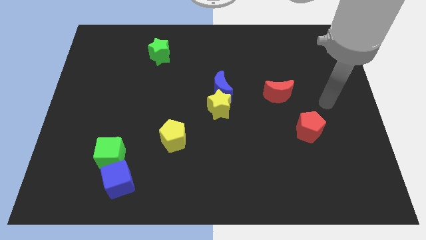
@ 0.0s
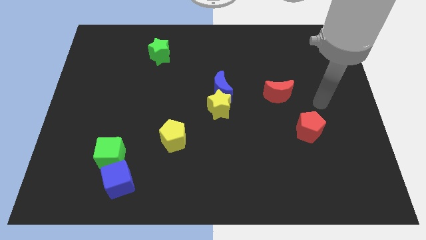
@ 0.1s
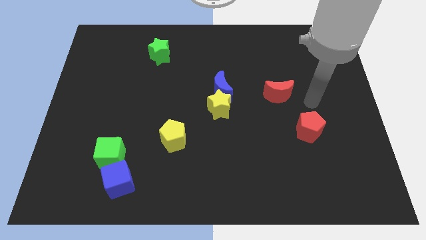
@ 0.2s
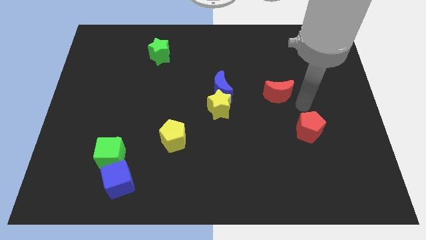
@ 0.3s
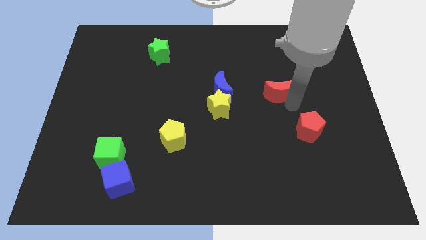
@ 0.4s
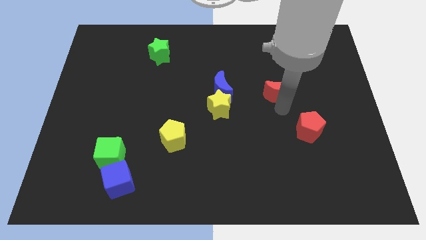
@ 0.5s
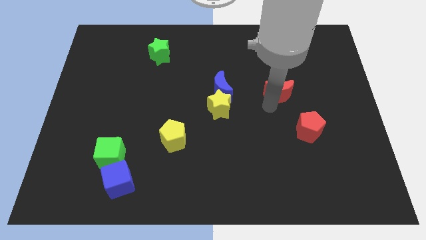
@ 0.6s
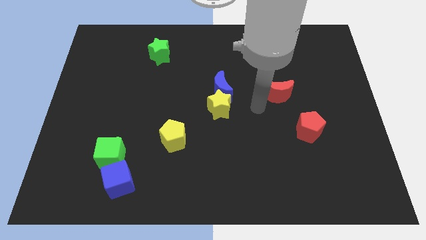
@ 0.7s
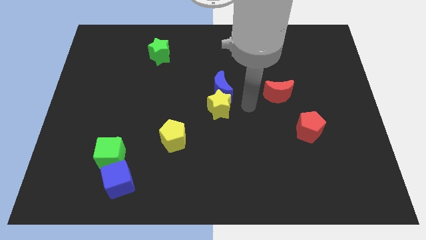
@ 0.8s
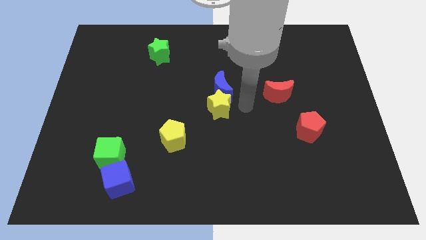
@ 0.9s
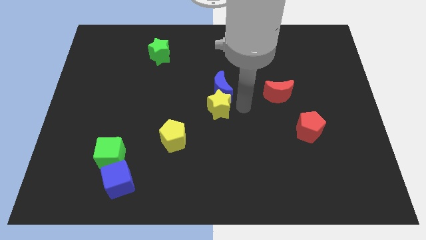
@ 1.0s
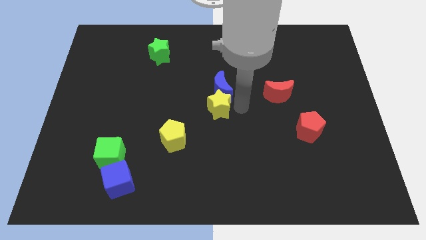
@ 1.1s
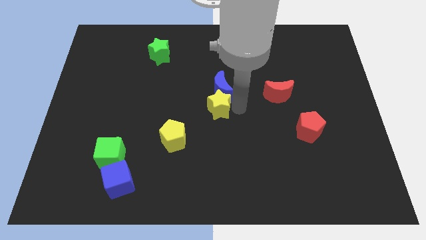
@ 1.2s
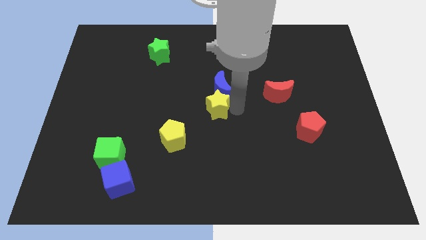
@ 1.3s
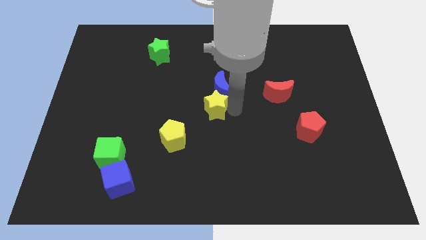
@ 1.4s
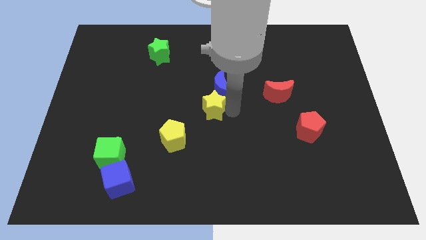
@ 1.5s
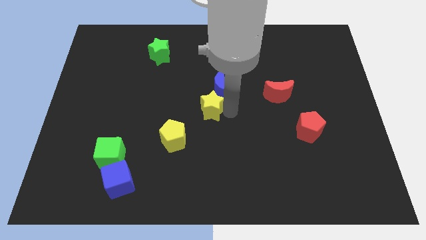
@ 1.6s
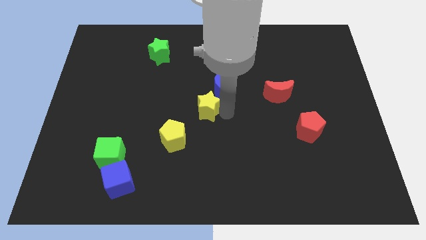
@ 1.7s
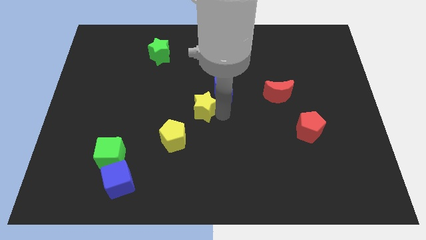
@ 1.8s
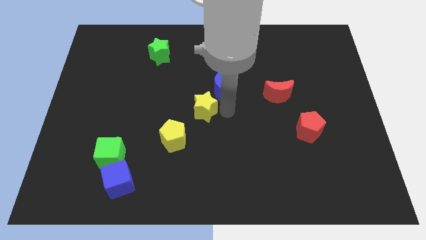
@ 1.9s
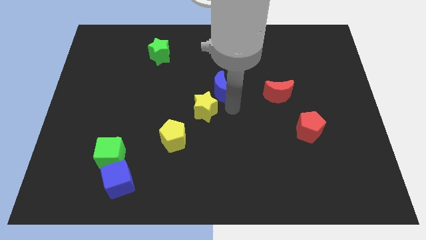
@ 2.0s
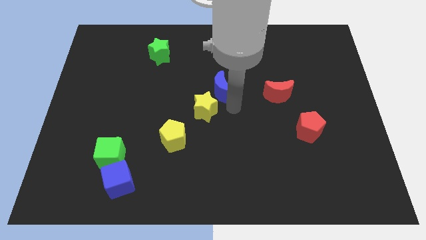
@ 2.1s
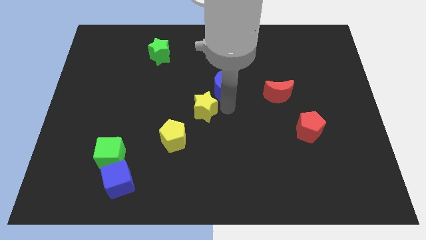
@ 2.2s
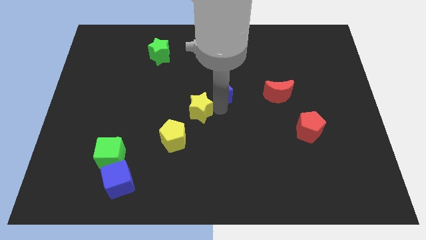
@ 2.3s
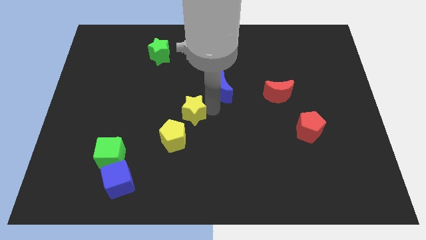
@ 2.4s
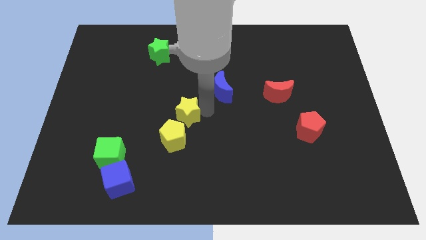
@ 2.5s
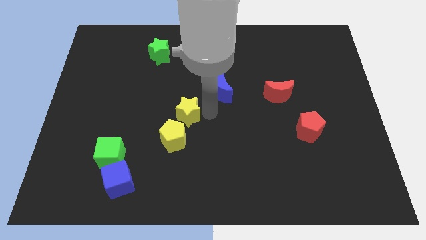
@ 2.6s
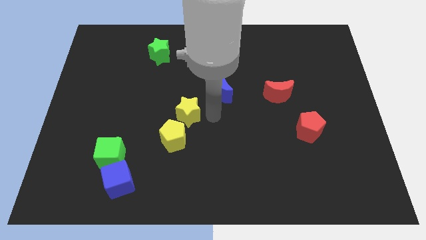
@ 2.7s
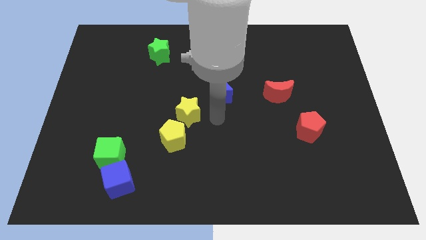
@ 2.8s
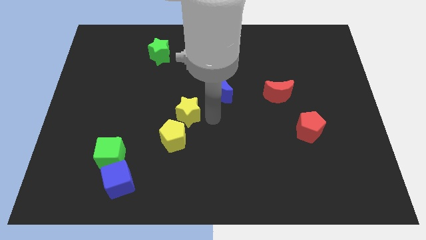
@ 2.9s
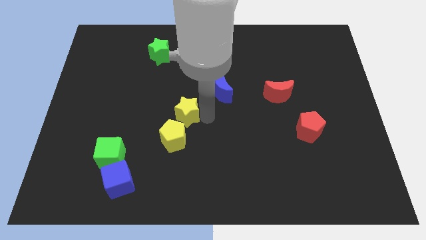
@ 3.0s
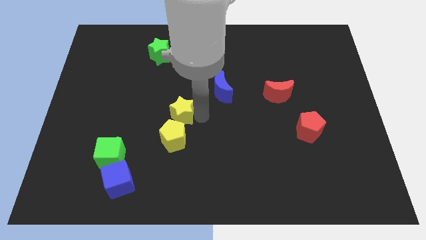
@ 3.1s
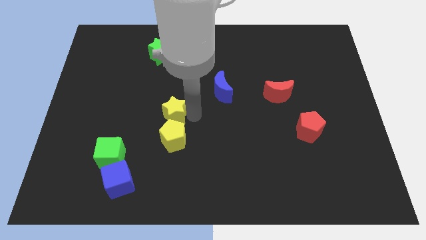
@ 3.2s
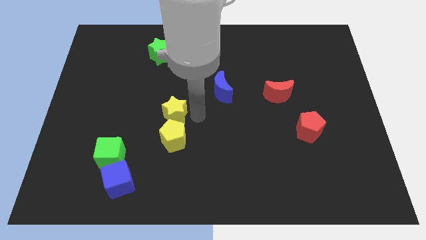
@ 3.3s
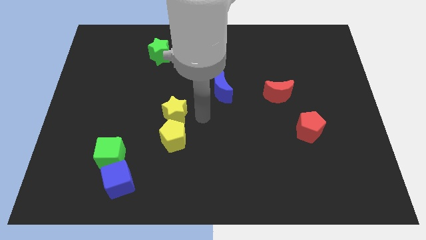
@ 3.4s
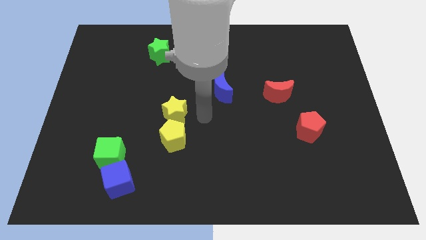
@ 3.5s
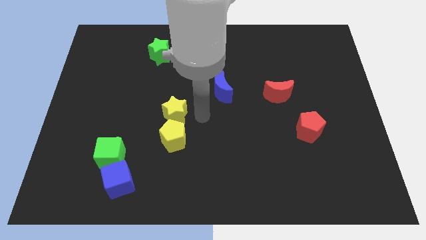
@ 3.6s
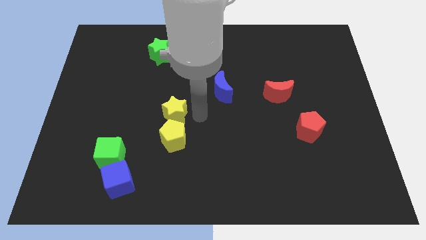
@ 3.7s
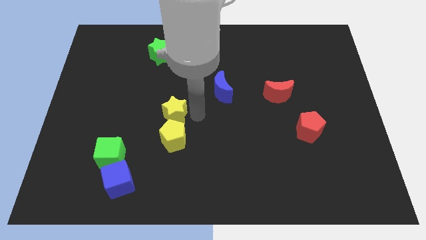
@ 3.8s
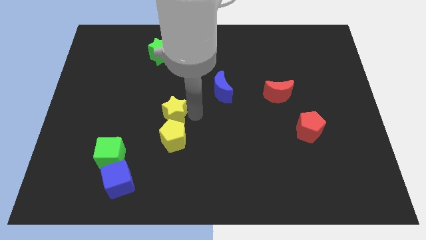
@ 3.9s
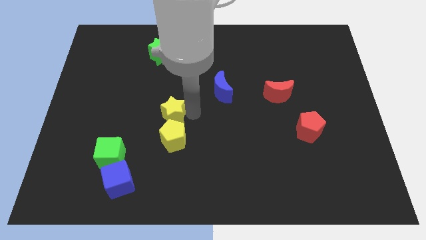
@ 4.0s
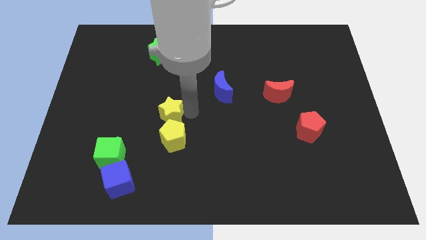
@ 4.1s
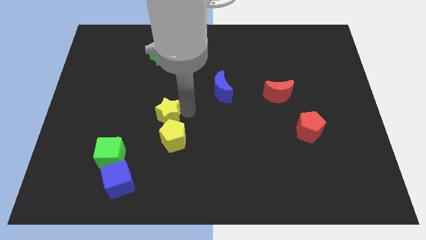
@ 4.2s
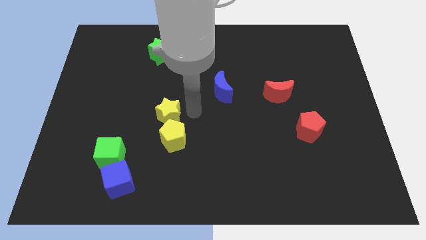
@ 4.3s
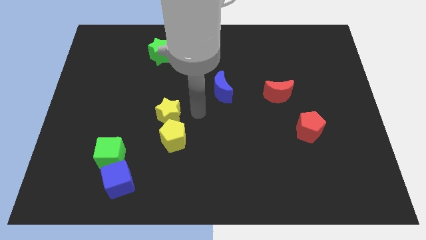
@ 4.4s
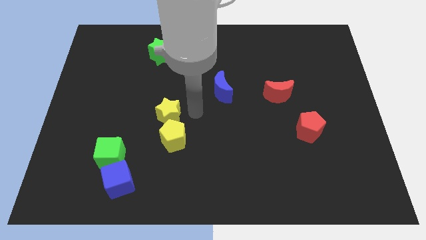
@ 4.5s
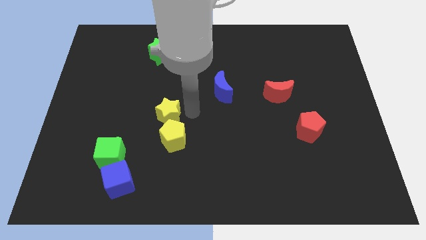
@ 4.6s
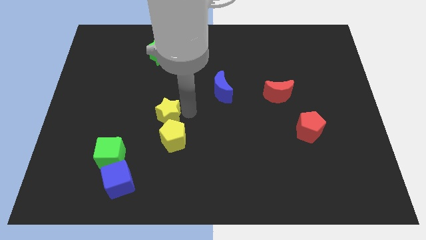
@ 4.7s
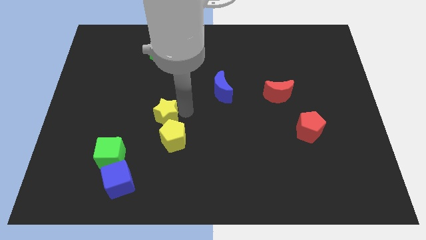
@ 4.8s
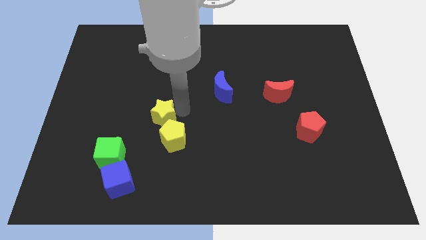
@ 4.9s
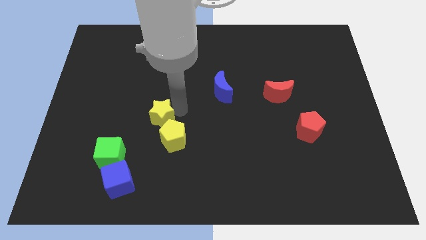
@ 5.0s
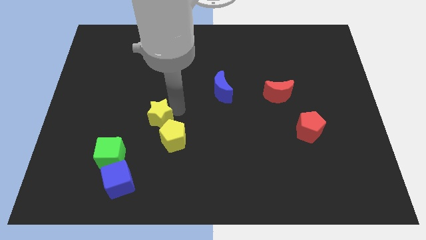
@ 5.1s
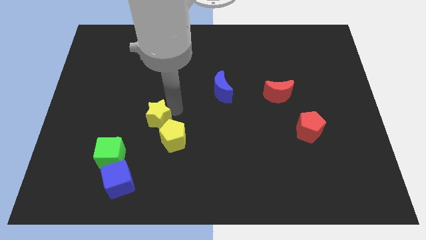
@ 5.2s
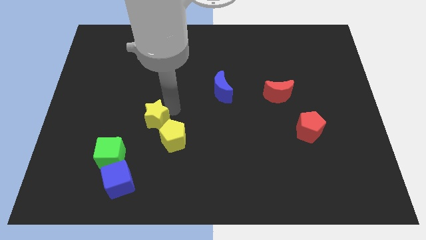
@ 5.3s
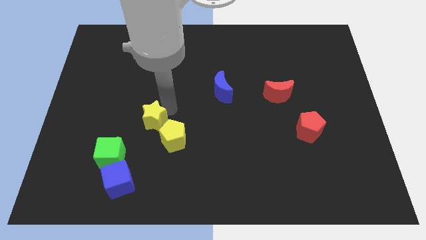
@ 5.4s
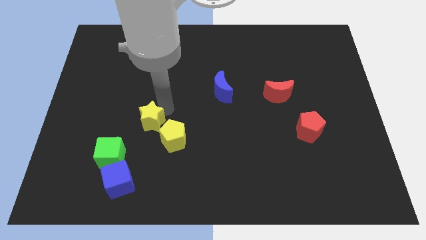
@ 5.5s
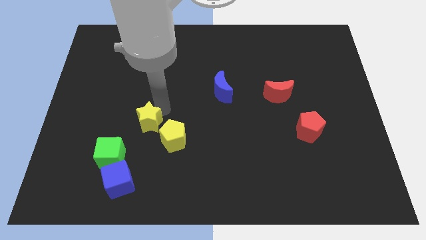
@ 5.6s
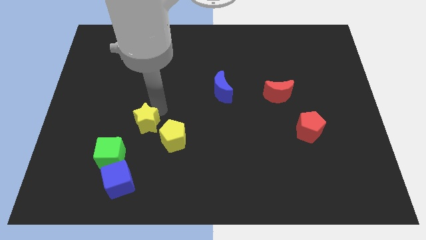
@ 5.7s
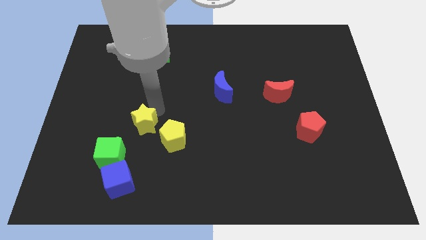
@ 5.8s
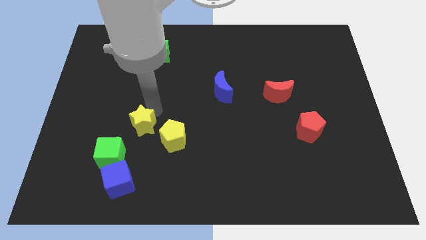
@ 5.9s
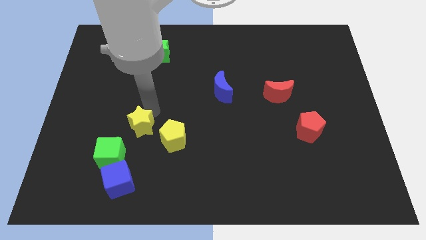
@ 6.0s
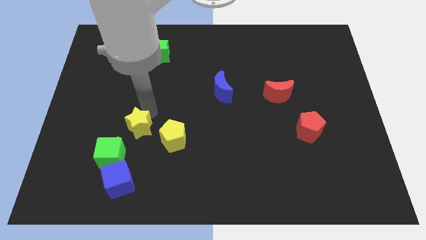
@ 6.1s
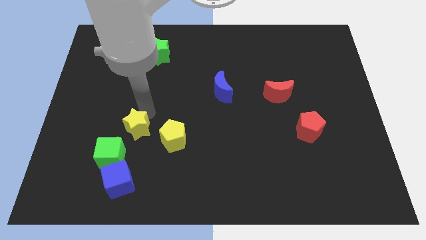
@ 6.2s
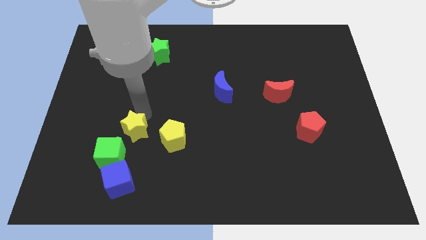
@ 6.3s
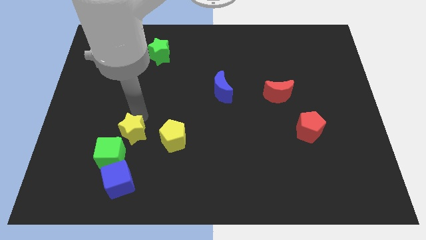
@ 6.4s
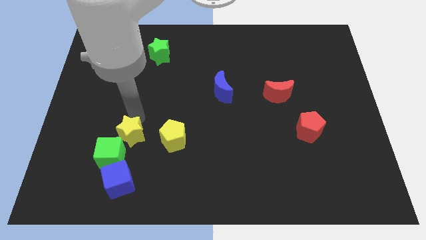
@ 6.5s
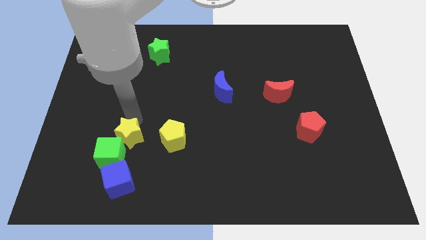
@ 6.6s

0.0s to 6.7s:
put the yellow star towards the green cube

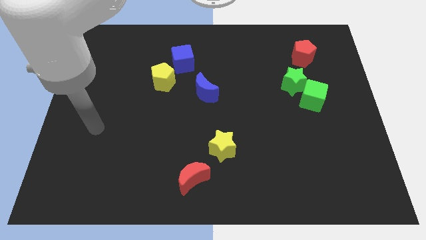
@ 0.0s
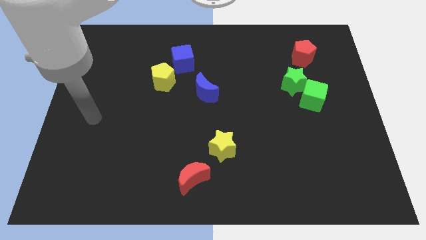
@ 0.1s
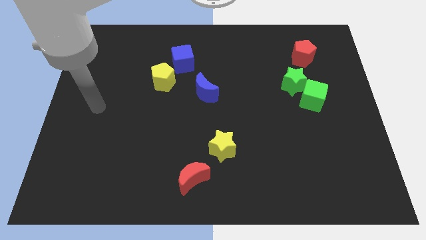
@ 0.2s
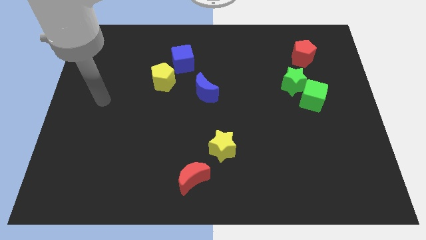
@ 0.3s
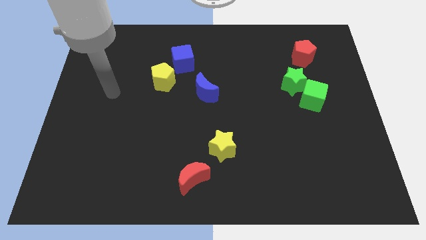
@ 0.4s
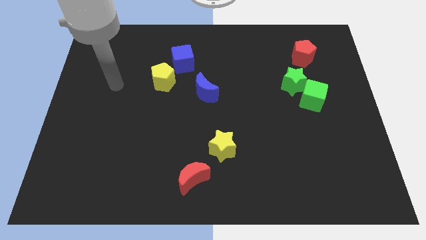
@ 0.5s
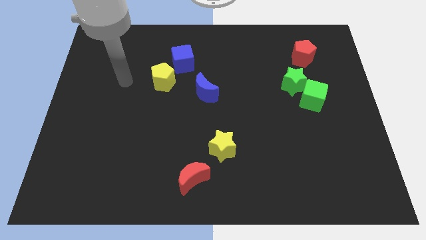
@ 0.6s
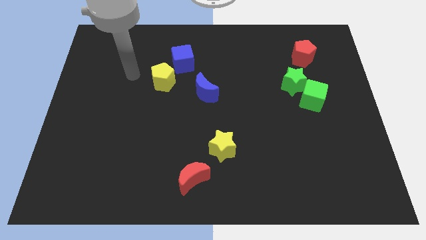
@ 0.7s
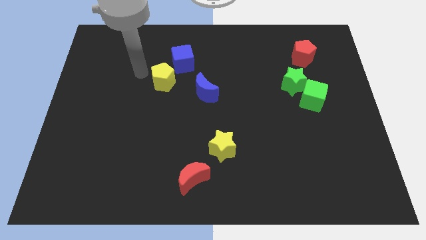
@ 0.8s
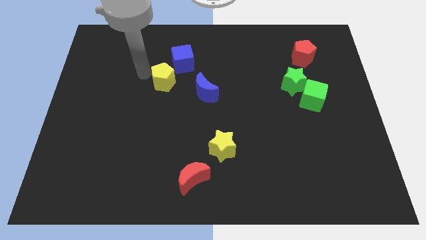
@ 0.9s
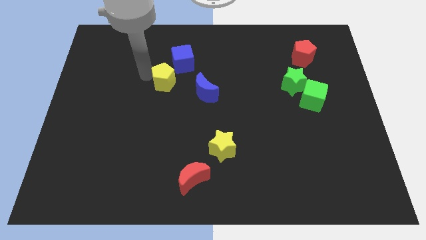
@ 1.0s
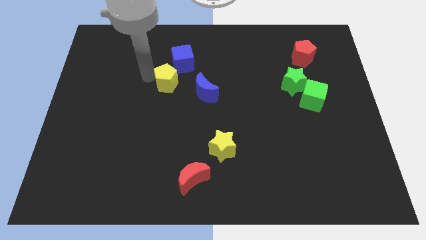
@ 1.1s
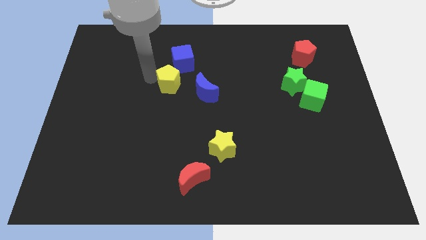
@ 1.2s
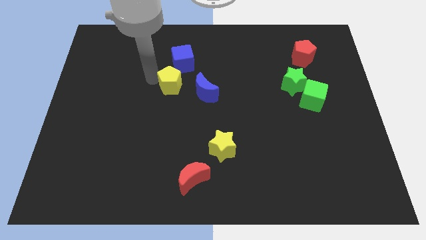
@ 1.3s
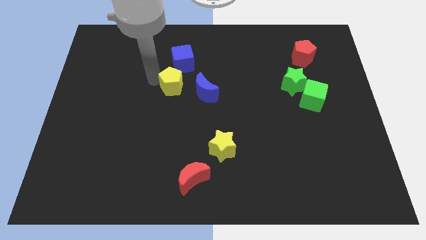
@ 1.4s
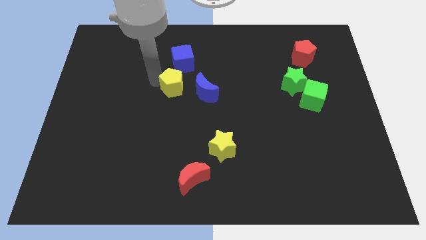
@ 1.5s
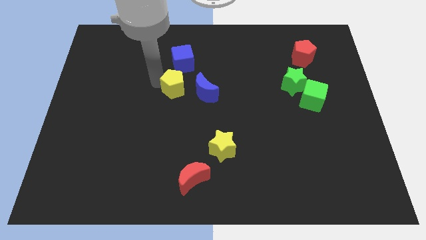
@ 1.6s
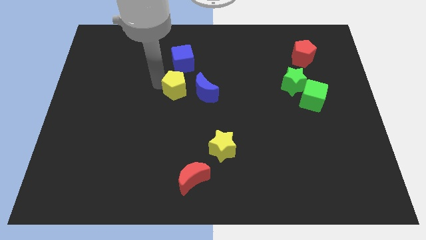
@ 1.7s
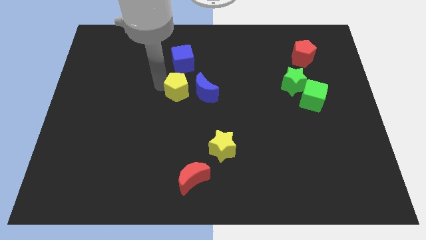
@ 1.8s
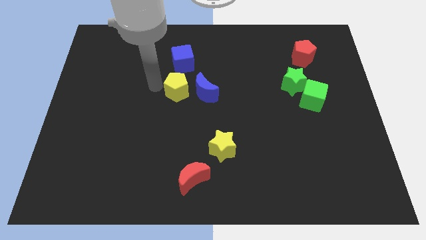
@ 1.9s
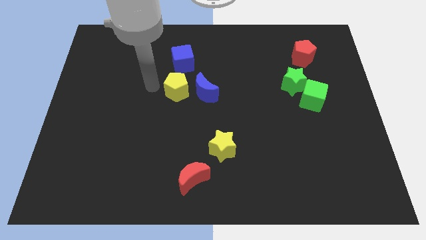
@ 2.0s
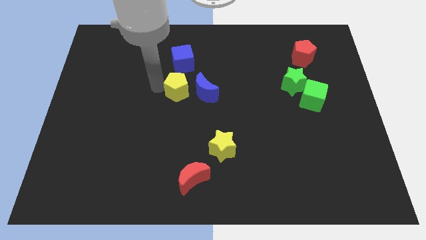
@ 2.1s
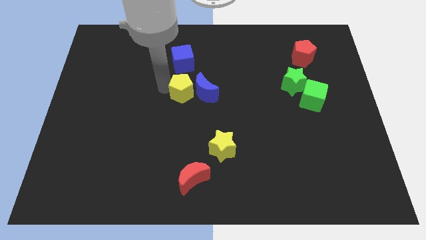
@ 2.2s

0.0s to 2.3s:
push the yellow pentagon close to the blue moon
